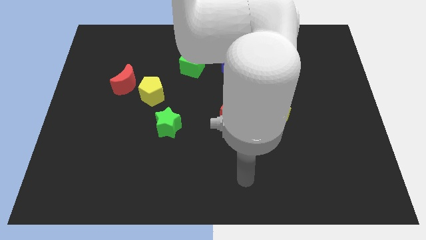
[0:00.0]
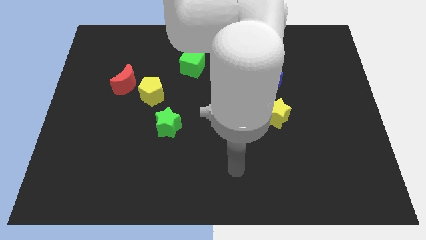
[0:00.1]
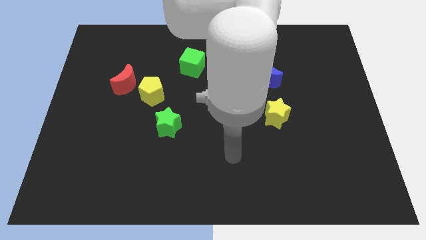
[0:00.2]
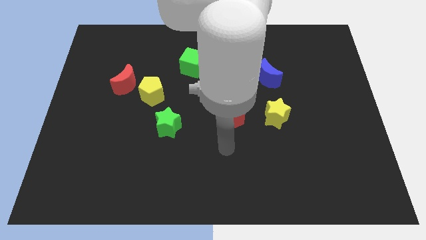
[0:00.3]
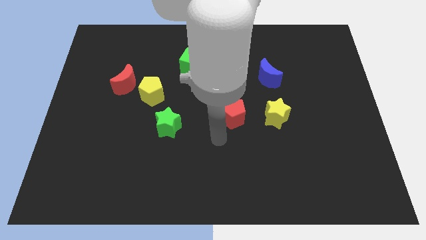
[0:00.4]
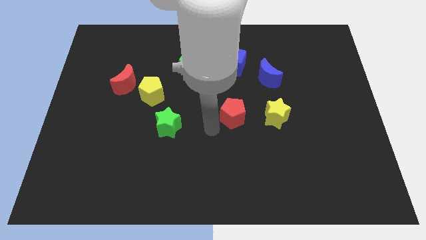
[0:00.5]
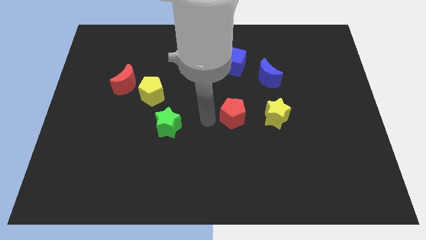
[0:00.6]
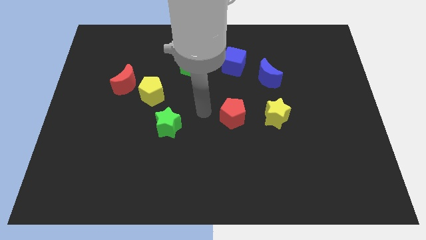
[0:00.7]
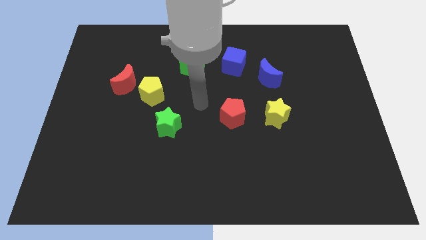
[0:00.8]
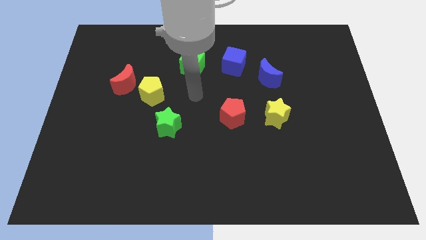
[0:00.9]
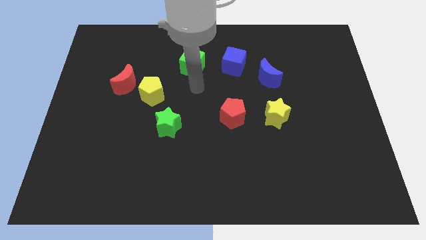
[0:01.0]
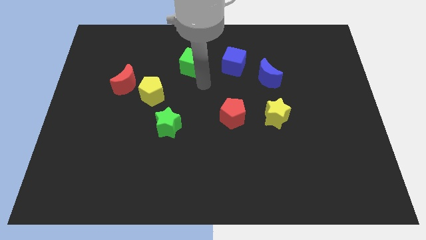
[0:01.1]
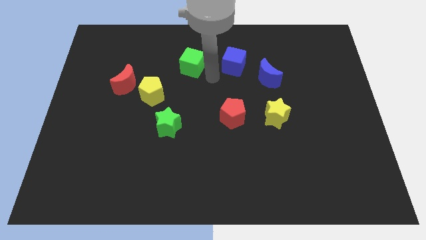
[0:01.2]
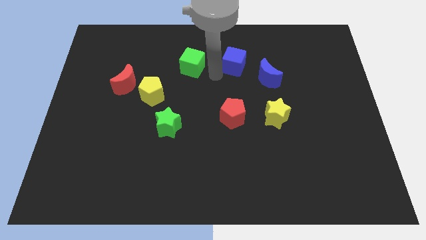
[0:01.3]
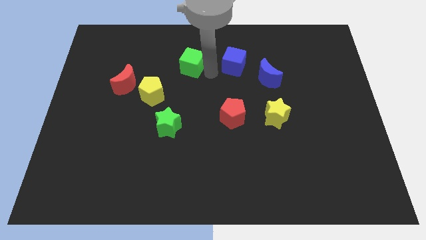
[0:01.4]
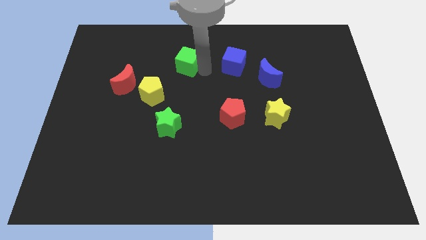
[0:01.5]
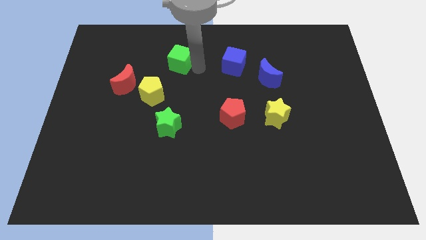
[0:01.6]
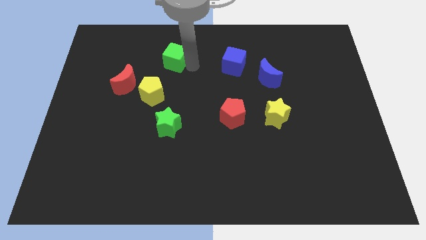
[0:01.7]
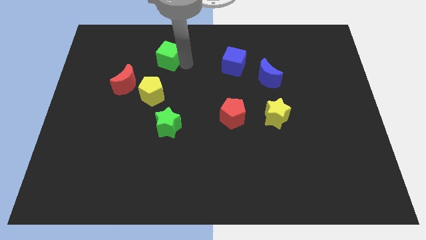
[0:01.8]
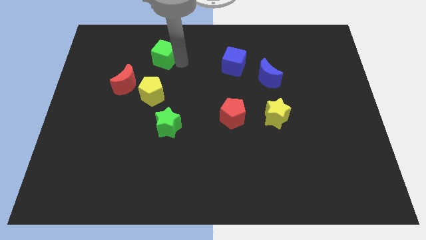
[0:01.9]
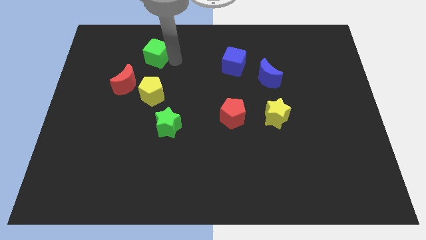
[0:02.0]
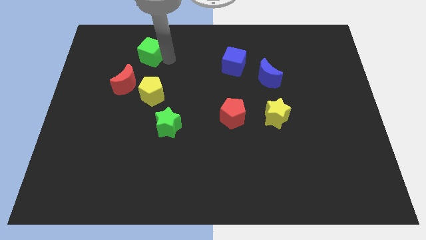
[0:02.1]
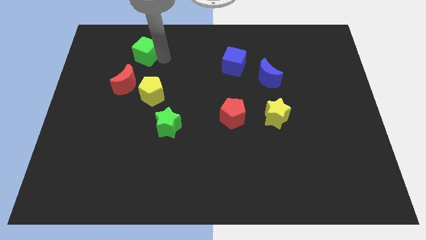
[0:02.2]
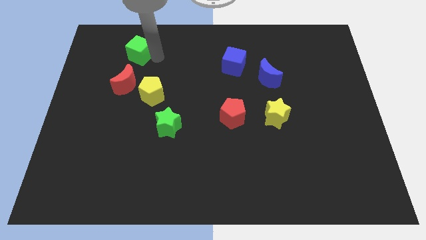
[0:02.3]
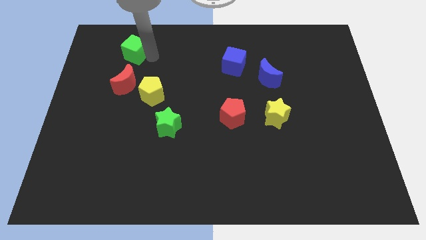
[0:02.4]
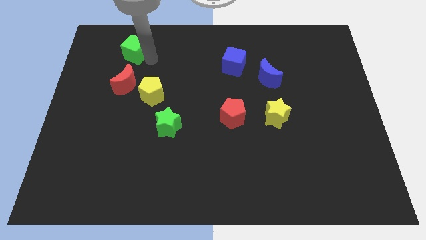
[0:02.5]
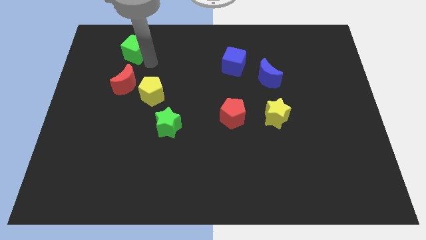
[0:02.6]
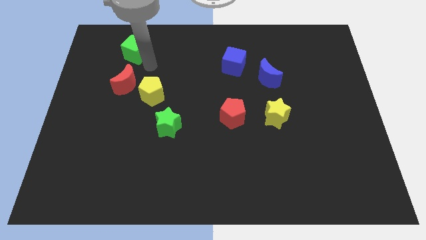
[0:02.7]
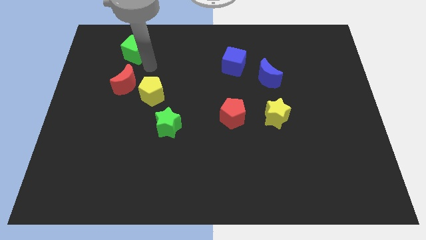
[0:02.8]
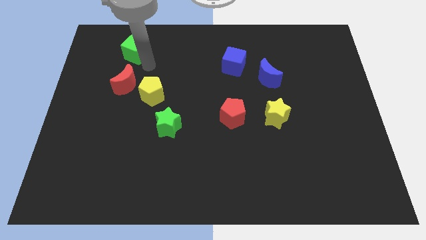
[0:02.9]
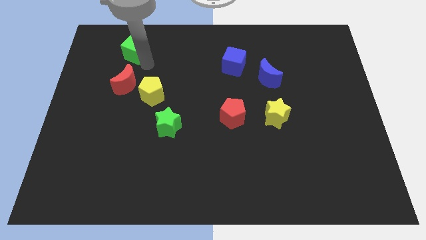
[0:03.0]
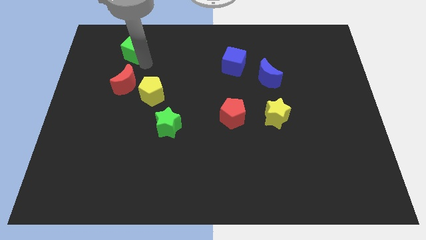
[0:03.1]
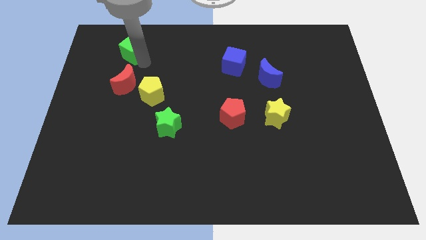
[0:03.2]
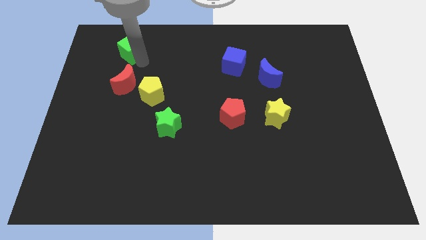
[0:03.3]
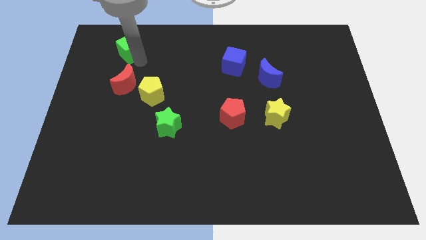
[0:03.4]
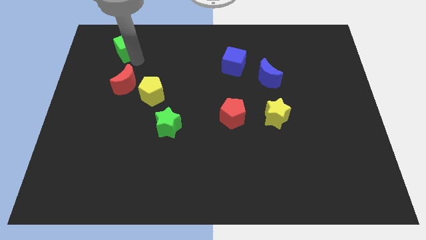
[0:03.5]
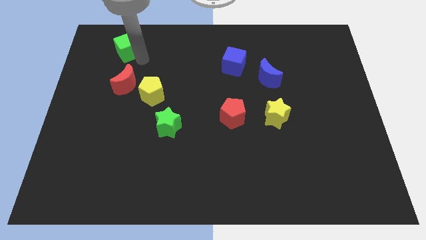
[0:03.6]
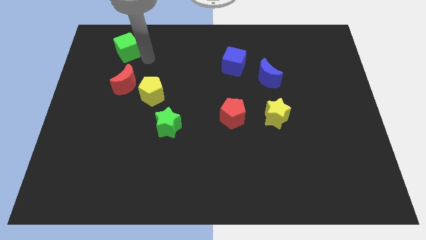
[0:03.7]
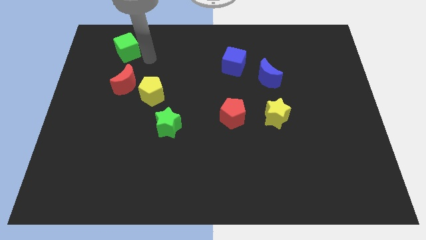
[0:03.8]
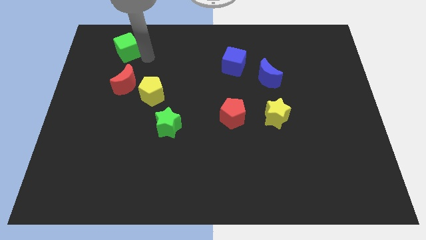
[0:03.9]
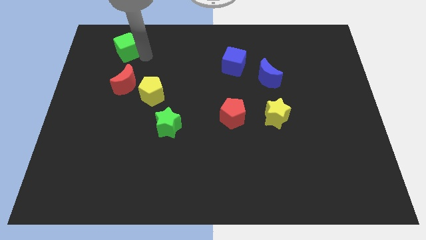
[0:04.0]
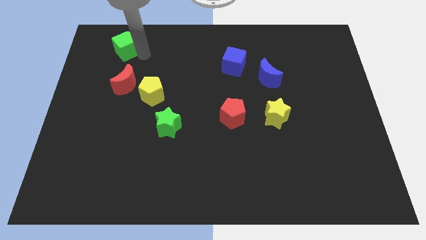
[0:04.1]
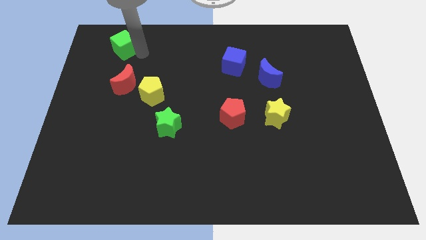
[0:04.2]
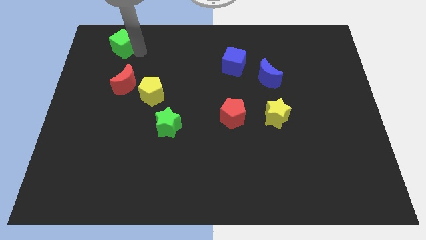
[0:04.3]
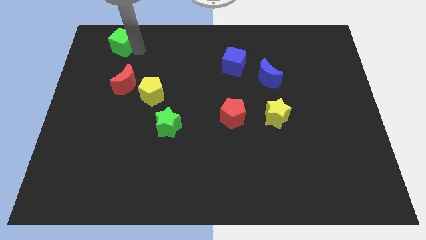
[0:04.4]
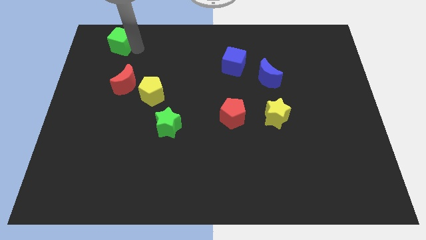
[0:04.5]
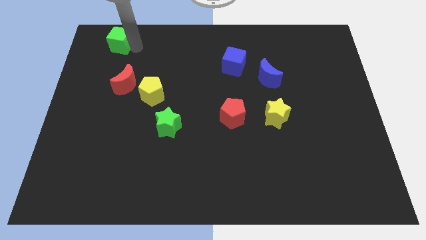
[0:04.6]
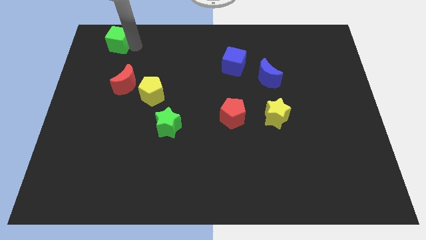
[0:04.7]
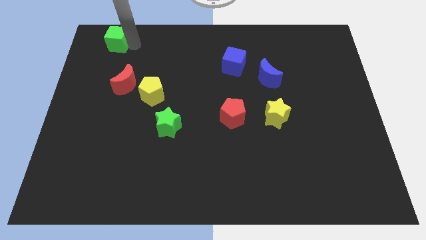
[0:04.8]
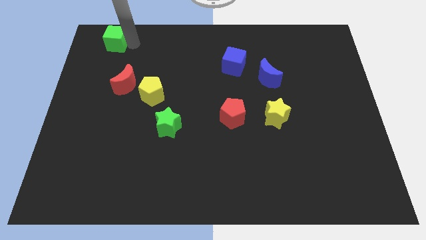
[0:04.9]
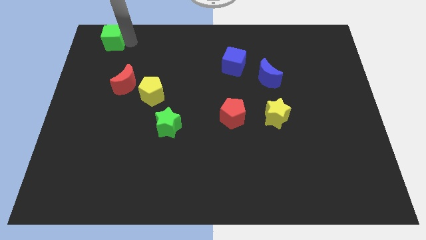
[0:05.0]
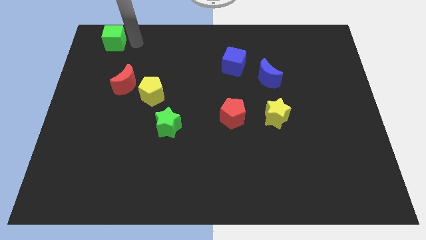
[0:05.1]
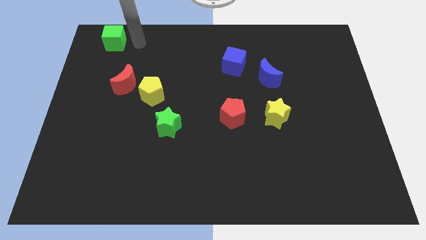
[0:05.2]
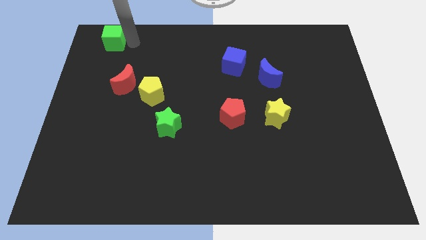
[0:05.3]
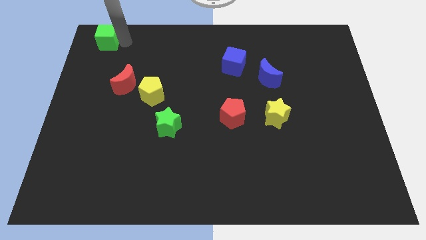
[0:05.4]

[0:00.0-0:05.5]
push the green cube to the top left

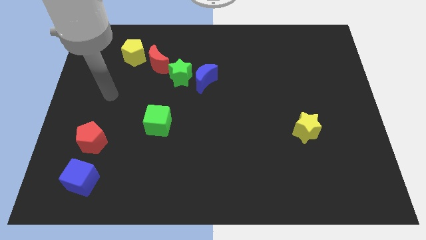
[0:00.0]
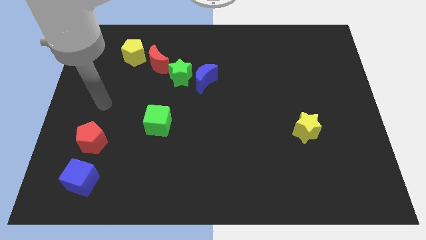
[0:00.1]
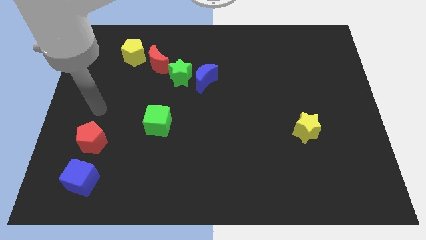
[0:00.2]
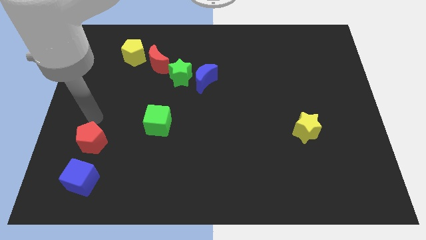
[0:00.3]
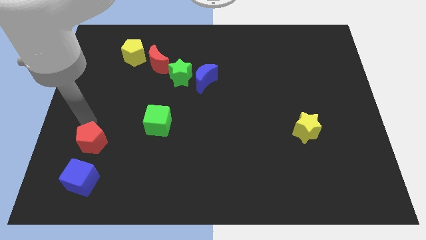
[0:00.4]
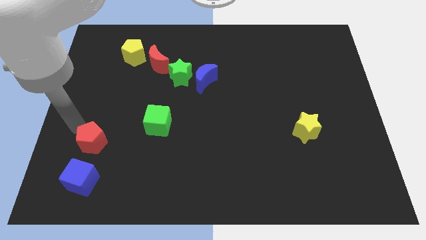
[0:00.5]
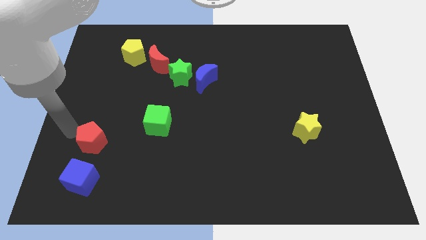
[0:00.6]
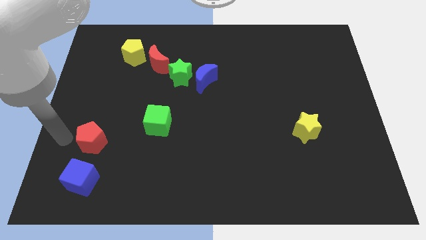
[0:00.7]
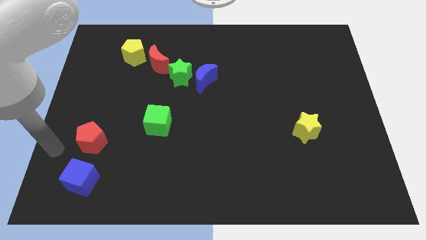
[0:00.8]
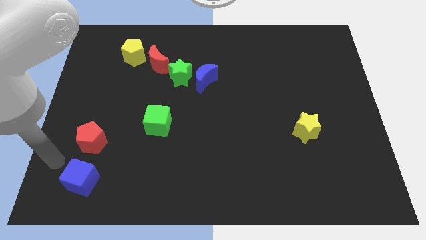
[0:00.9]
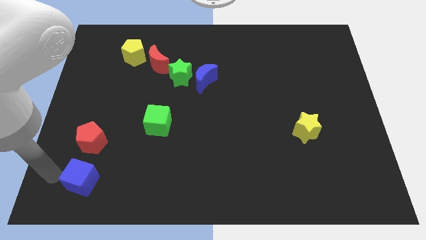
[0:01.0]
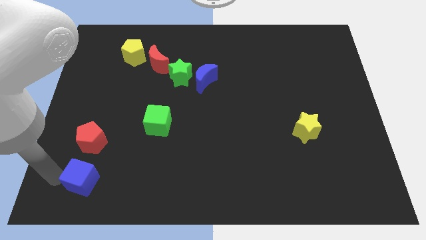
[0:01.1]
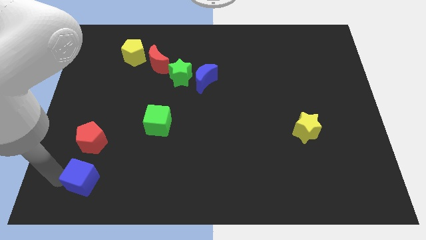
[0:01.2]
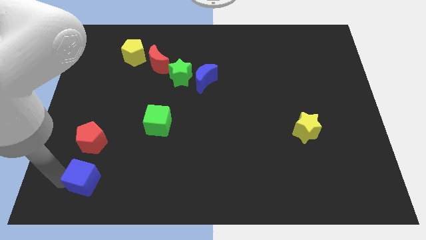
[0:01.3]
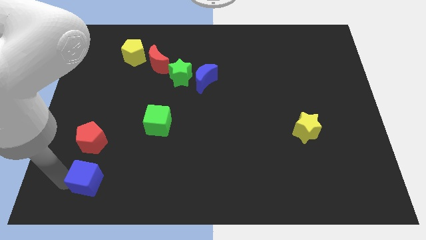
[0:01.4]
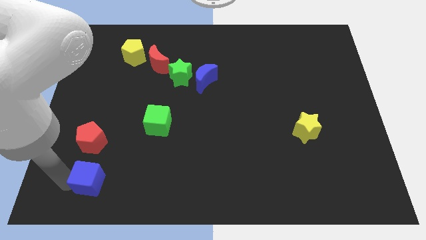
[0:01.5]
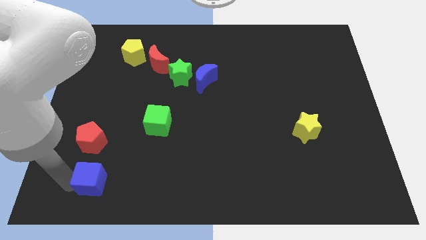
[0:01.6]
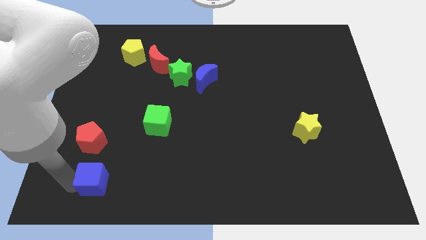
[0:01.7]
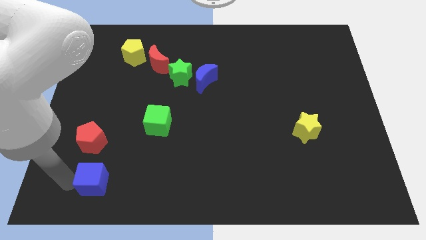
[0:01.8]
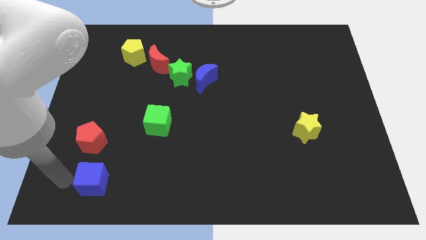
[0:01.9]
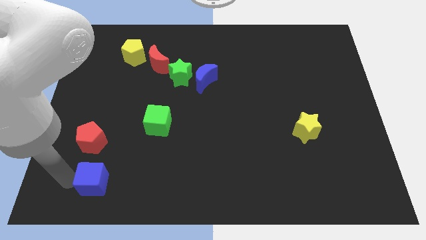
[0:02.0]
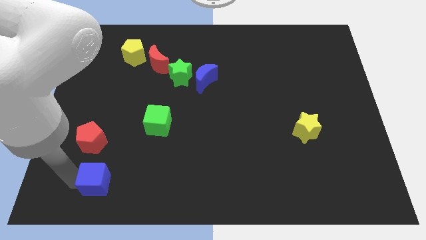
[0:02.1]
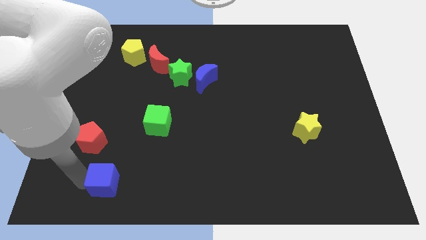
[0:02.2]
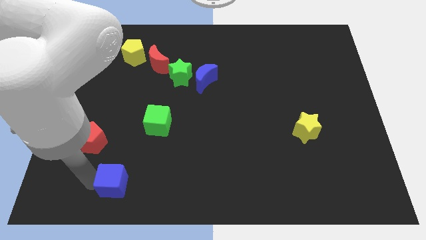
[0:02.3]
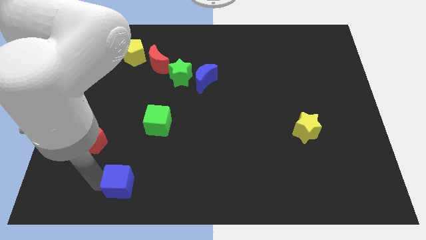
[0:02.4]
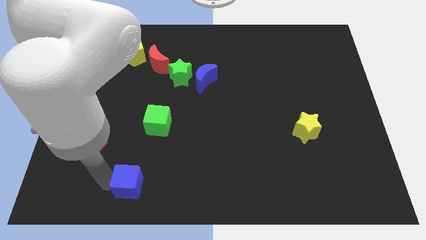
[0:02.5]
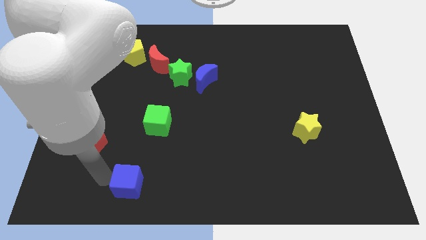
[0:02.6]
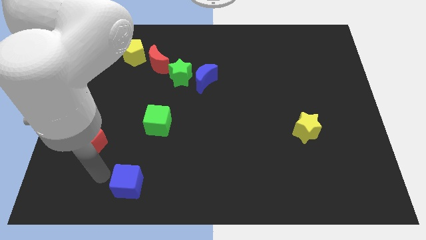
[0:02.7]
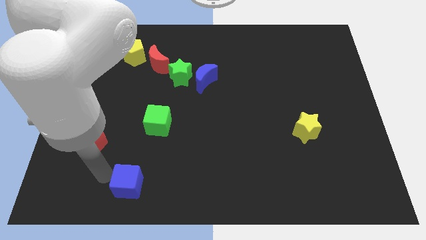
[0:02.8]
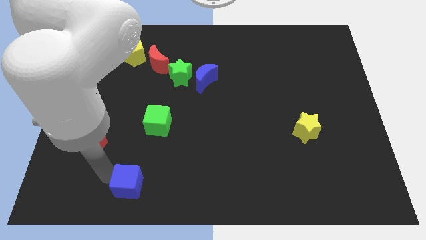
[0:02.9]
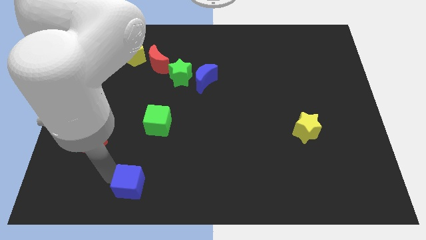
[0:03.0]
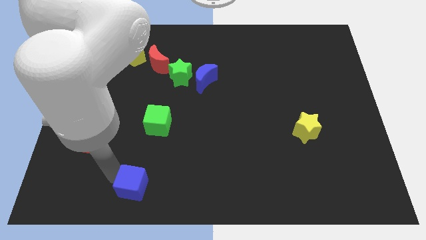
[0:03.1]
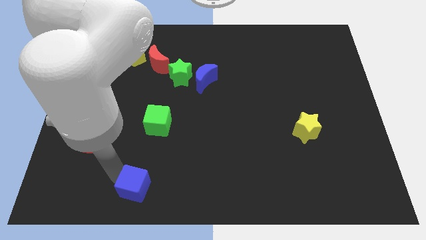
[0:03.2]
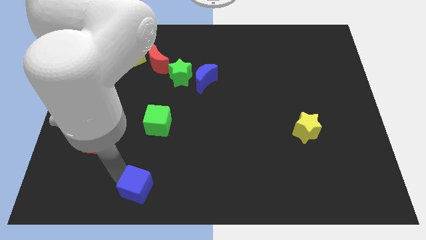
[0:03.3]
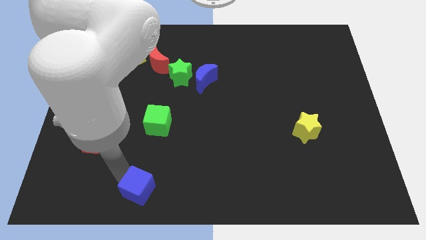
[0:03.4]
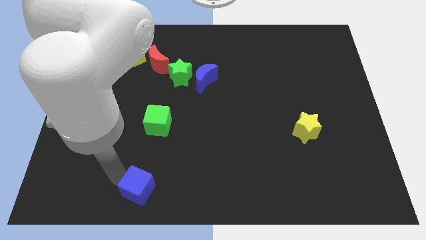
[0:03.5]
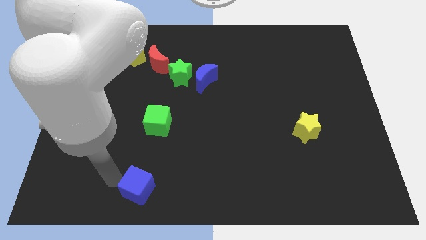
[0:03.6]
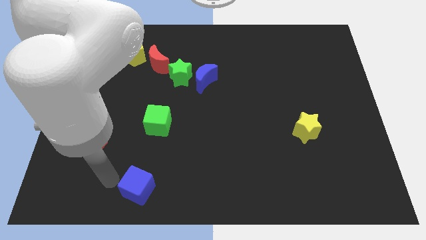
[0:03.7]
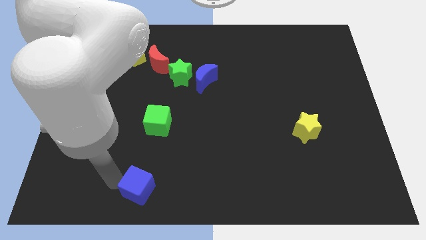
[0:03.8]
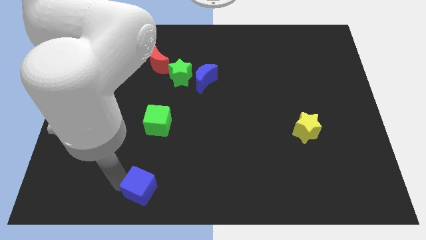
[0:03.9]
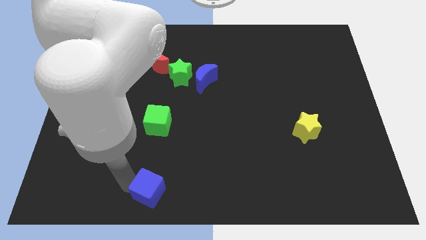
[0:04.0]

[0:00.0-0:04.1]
move the blue cube to the bottom side
